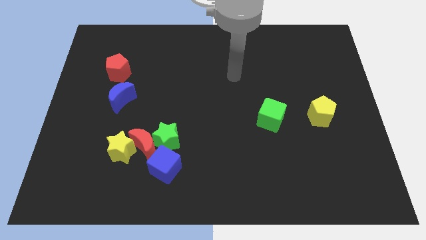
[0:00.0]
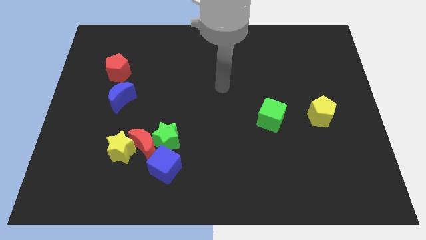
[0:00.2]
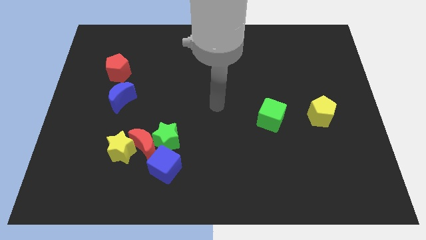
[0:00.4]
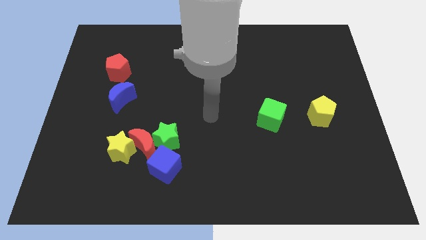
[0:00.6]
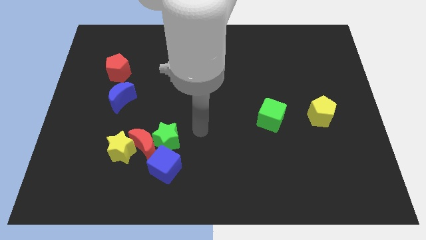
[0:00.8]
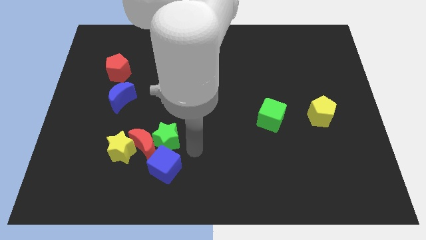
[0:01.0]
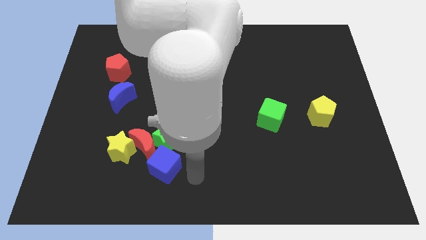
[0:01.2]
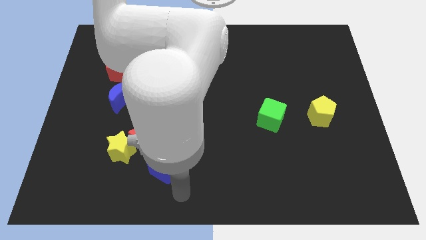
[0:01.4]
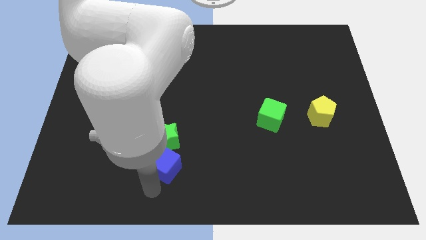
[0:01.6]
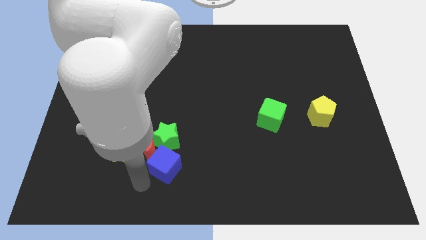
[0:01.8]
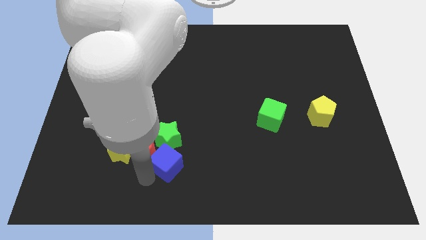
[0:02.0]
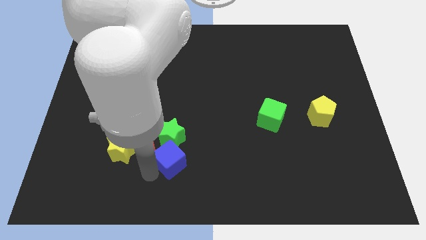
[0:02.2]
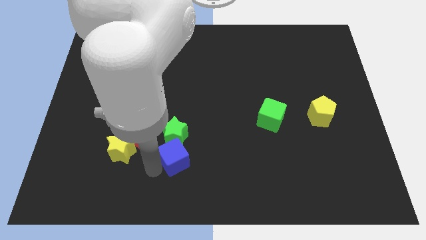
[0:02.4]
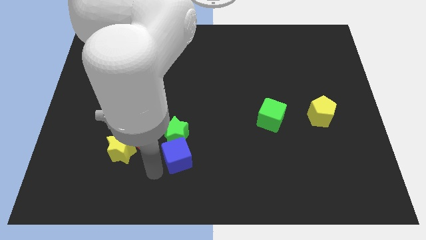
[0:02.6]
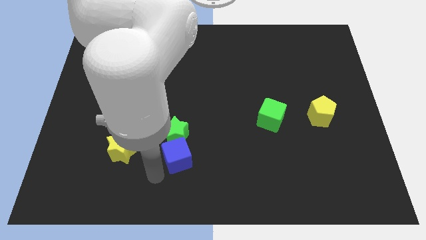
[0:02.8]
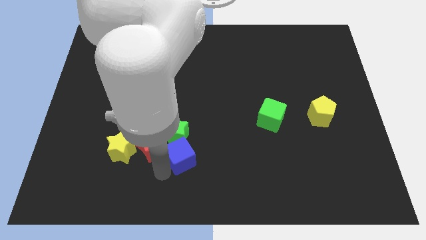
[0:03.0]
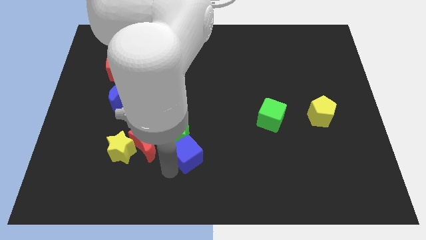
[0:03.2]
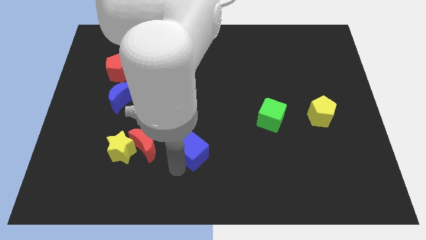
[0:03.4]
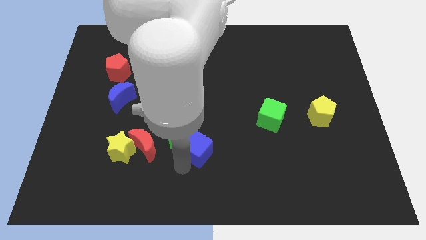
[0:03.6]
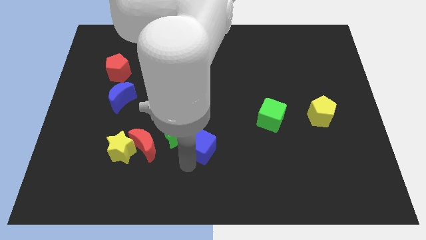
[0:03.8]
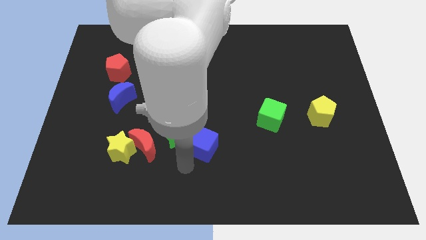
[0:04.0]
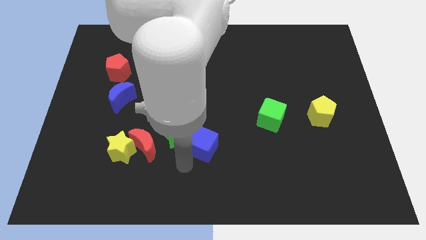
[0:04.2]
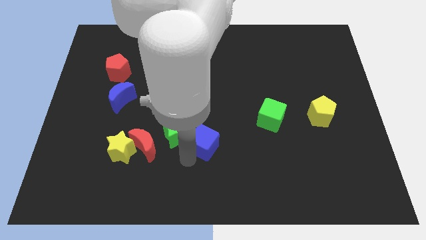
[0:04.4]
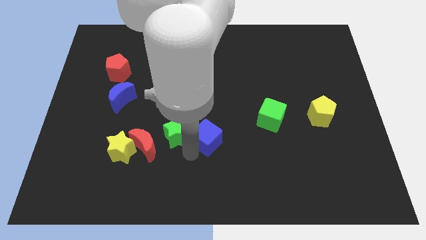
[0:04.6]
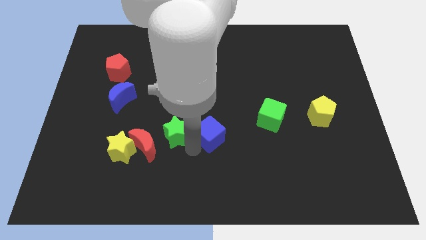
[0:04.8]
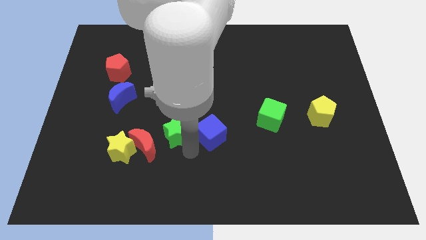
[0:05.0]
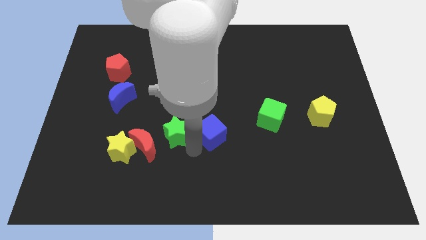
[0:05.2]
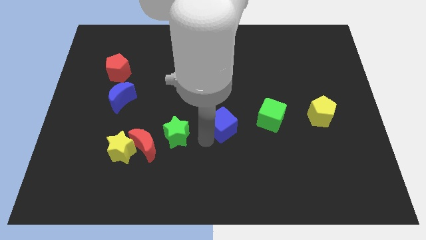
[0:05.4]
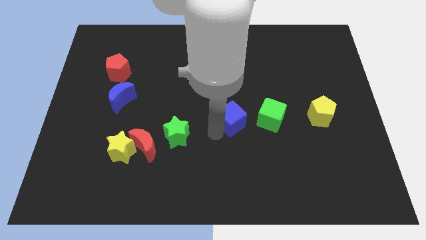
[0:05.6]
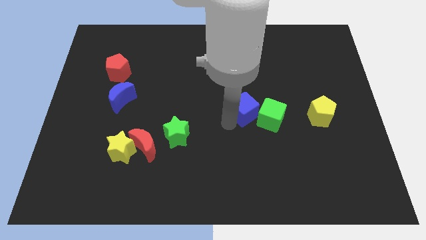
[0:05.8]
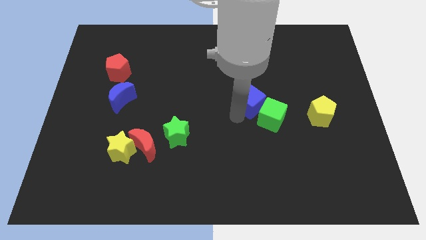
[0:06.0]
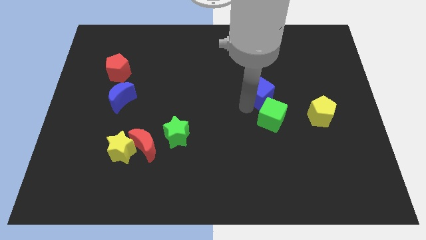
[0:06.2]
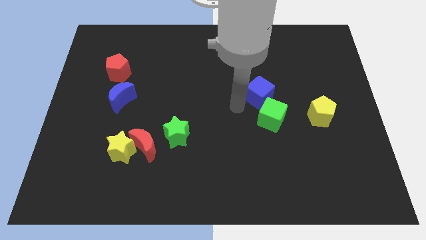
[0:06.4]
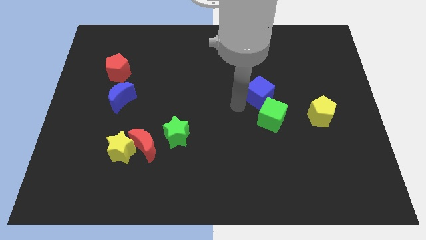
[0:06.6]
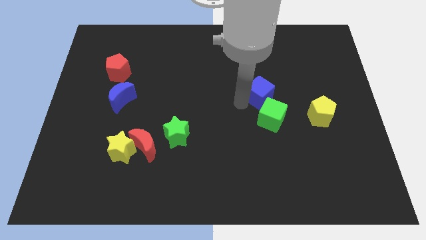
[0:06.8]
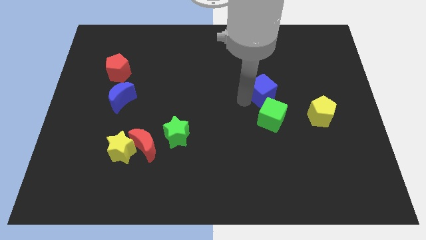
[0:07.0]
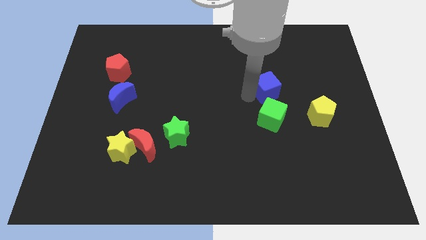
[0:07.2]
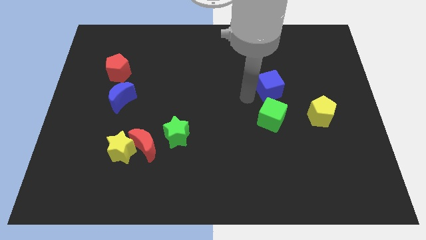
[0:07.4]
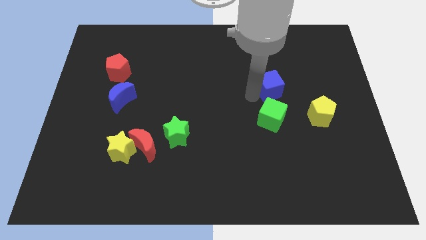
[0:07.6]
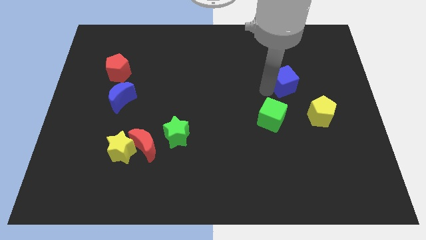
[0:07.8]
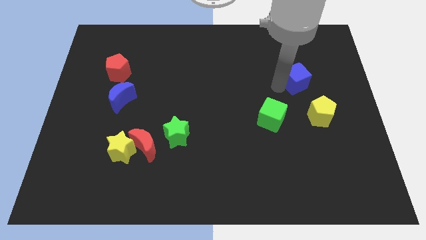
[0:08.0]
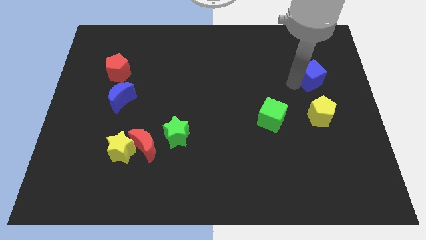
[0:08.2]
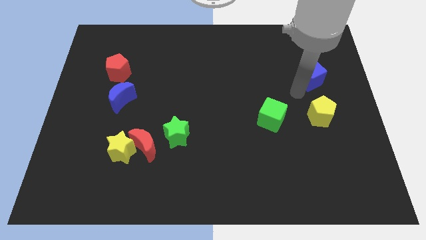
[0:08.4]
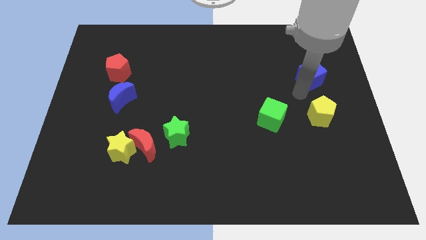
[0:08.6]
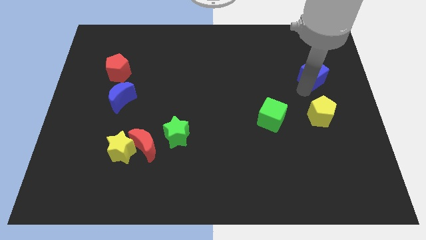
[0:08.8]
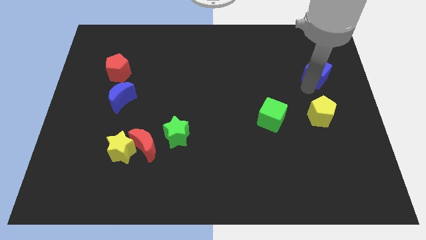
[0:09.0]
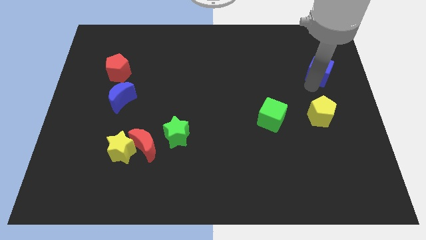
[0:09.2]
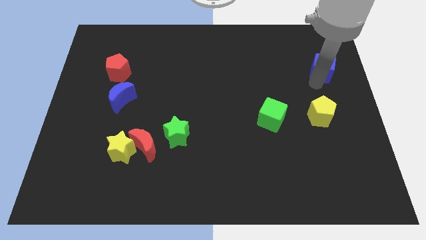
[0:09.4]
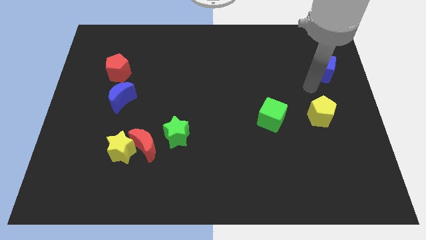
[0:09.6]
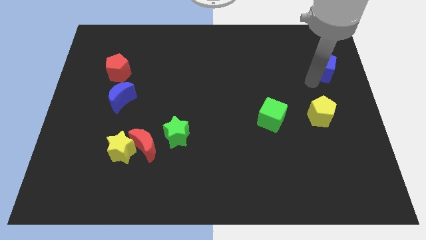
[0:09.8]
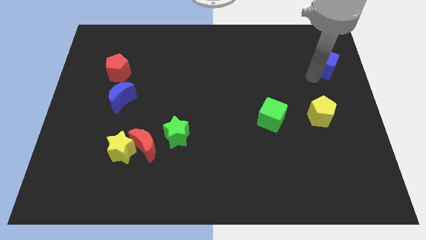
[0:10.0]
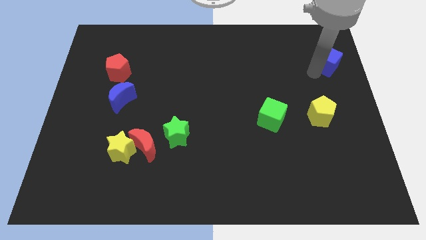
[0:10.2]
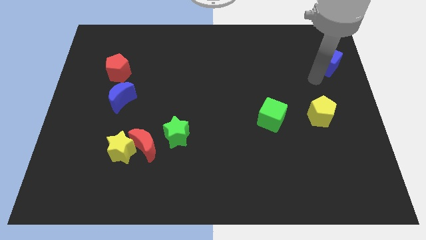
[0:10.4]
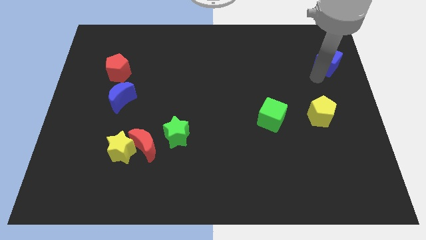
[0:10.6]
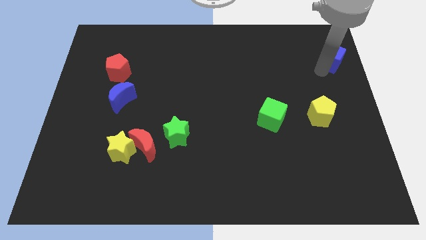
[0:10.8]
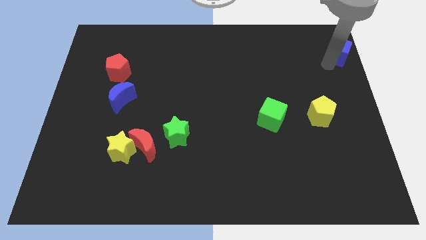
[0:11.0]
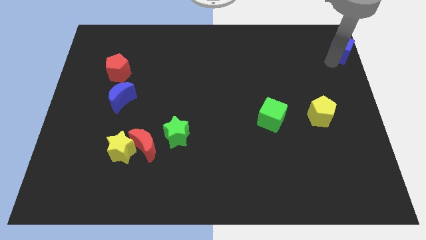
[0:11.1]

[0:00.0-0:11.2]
push the blue cube to the top right of the board

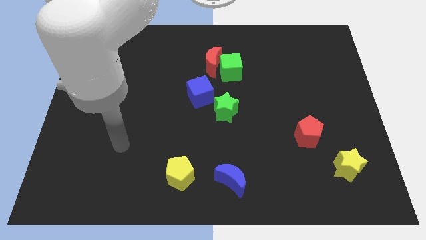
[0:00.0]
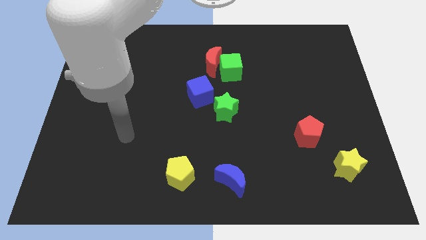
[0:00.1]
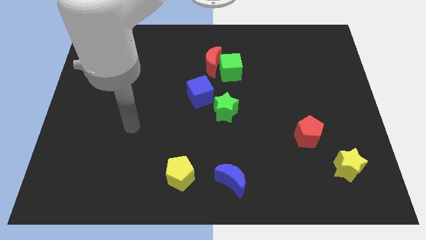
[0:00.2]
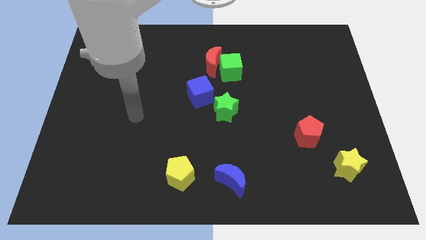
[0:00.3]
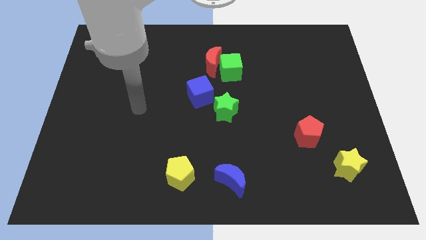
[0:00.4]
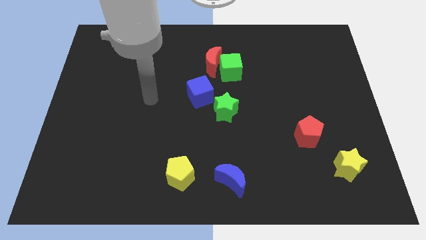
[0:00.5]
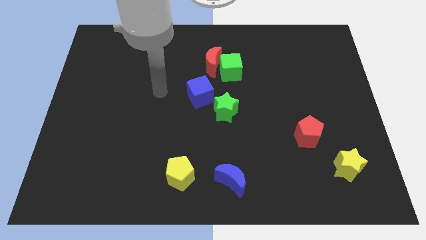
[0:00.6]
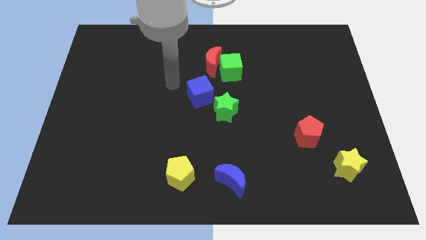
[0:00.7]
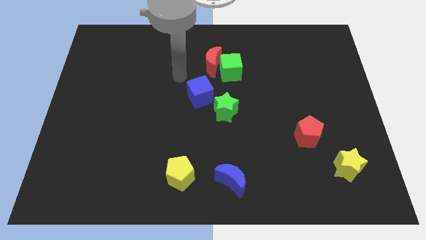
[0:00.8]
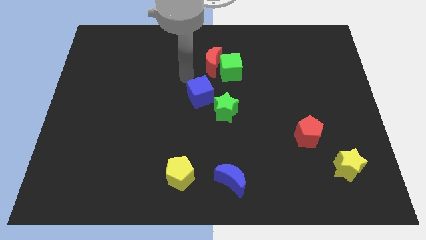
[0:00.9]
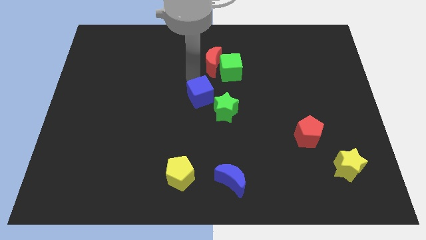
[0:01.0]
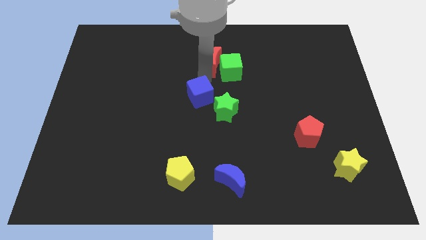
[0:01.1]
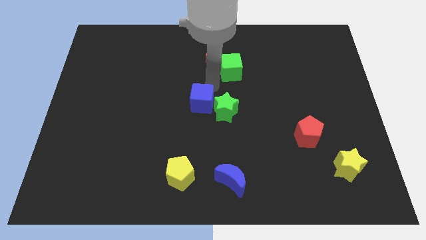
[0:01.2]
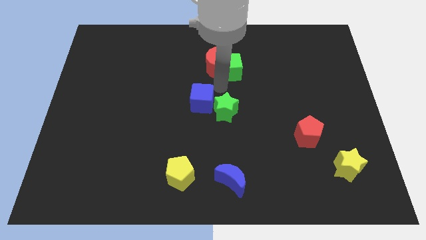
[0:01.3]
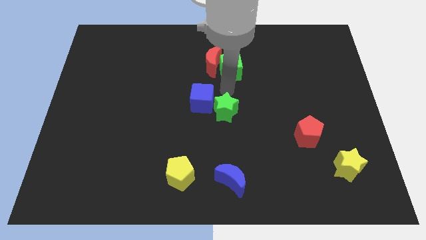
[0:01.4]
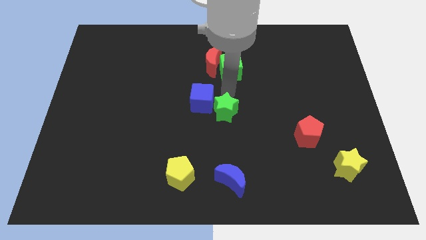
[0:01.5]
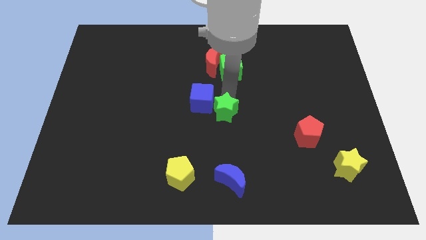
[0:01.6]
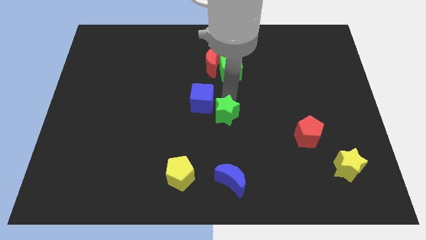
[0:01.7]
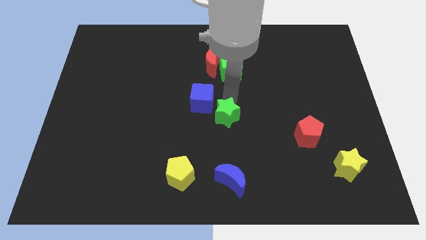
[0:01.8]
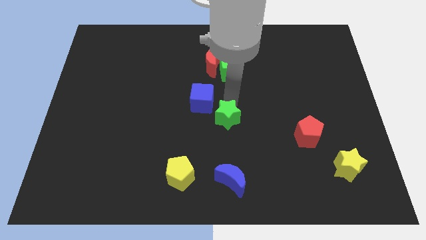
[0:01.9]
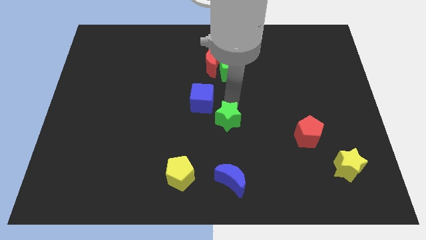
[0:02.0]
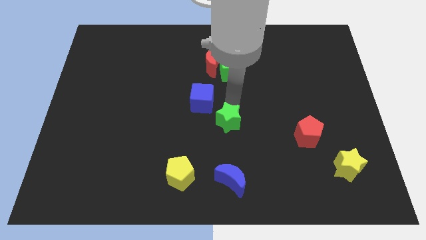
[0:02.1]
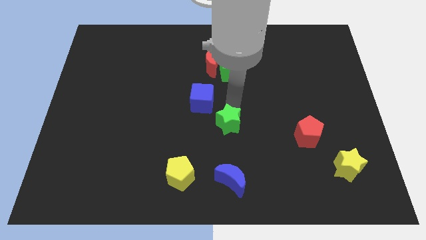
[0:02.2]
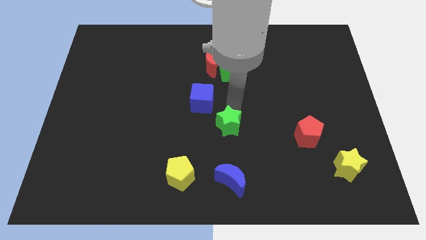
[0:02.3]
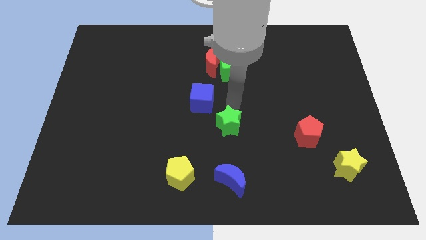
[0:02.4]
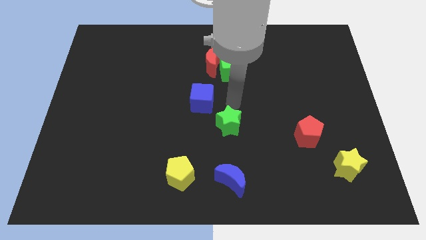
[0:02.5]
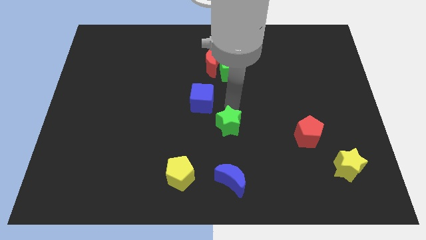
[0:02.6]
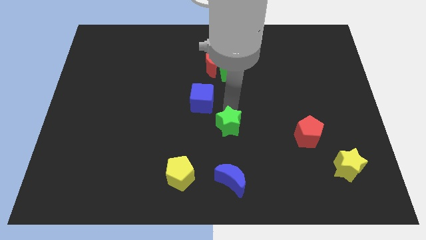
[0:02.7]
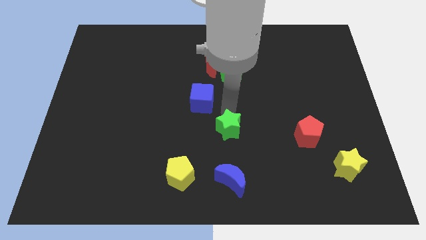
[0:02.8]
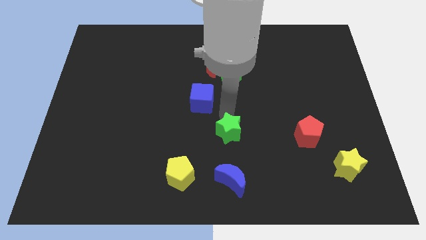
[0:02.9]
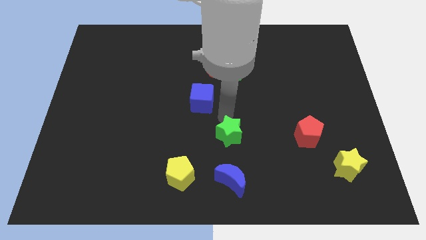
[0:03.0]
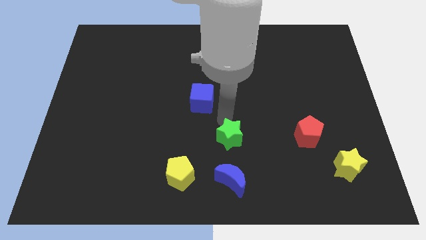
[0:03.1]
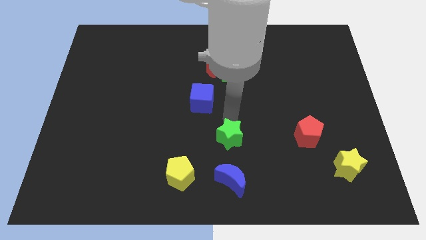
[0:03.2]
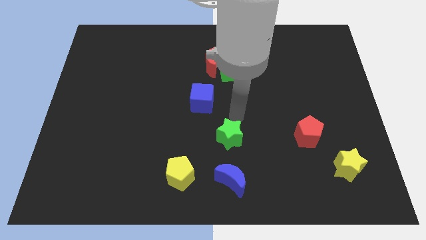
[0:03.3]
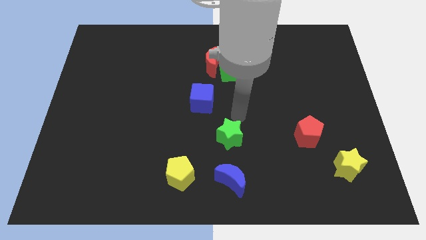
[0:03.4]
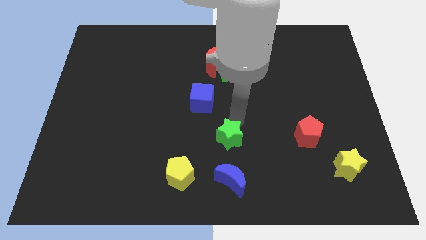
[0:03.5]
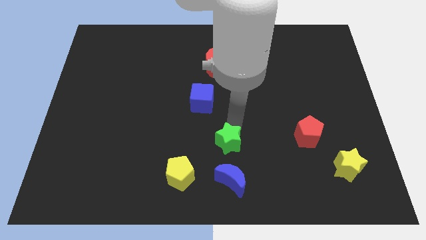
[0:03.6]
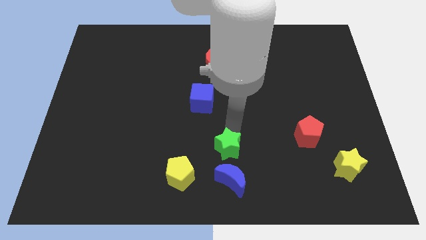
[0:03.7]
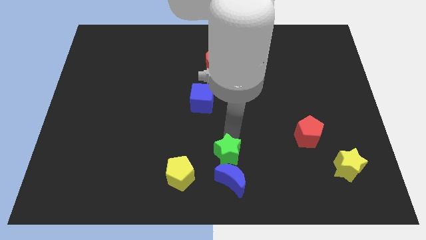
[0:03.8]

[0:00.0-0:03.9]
put the green star to the bottom side
